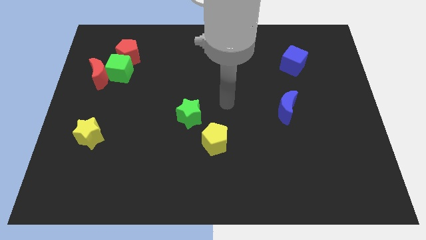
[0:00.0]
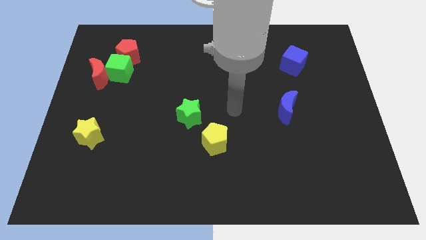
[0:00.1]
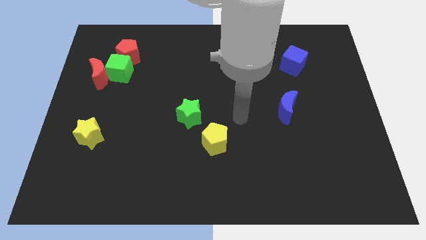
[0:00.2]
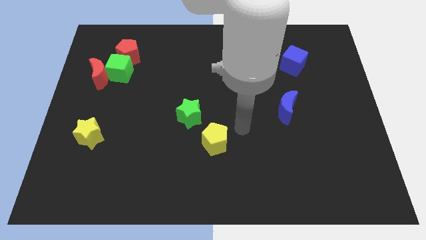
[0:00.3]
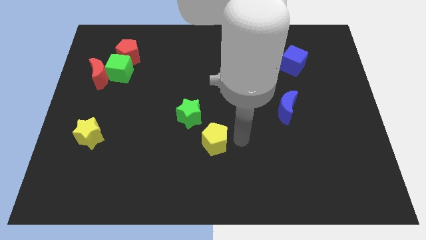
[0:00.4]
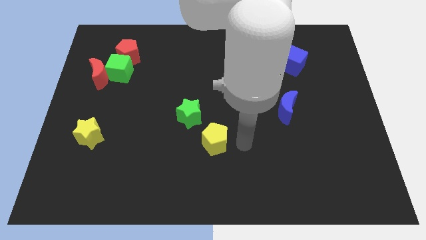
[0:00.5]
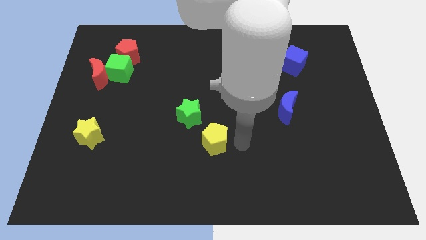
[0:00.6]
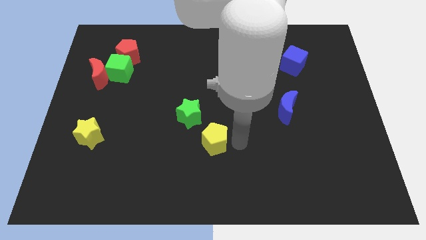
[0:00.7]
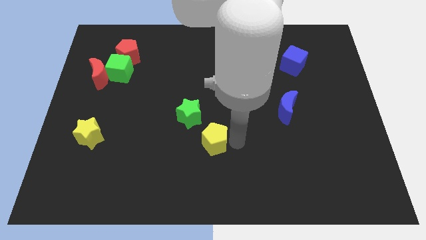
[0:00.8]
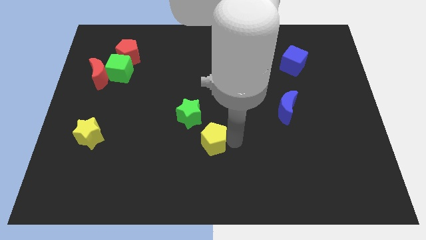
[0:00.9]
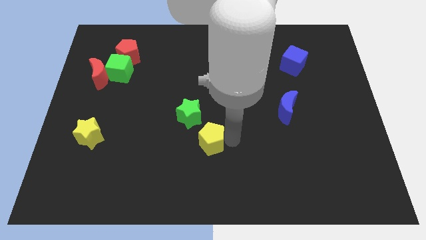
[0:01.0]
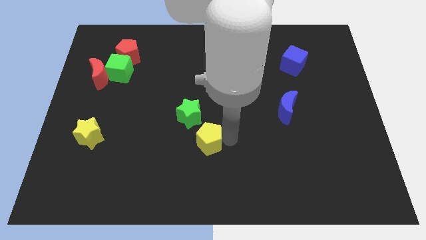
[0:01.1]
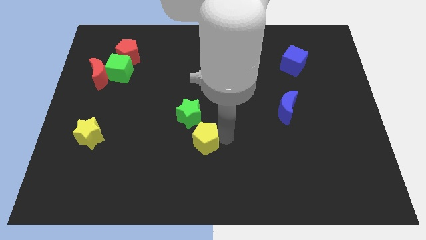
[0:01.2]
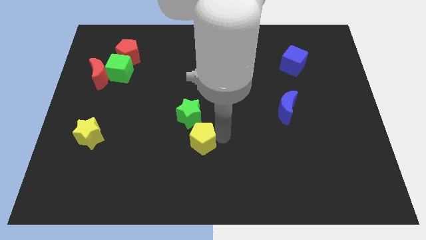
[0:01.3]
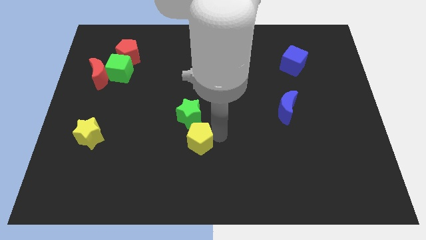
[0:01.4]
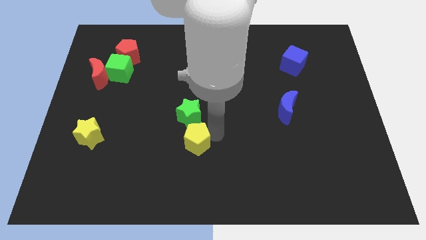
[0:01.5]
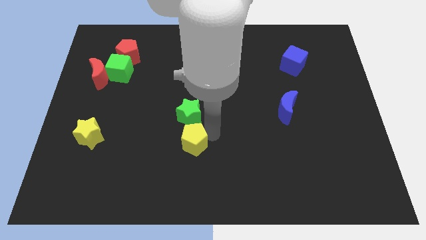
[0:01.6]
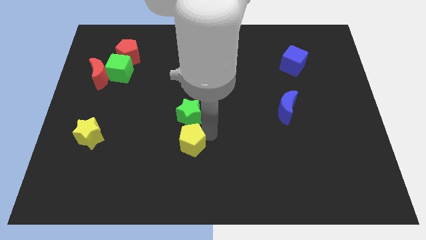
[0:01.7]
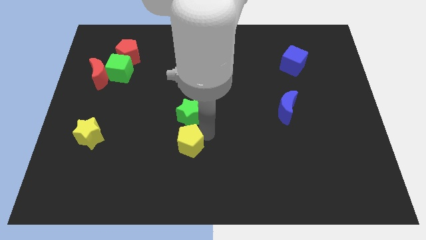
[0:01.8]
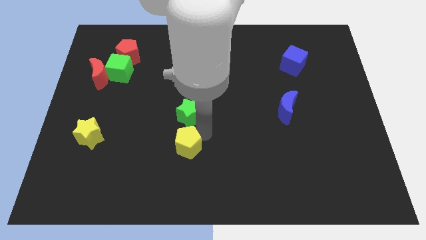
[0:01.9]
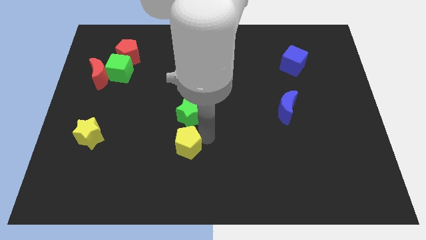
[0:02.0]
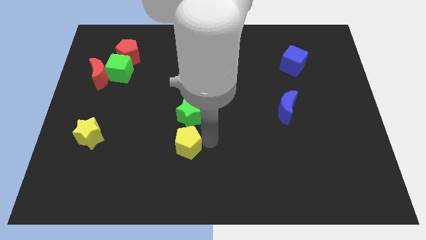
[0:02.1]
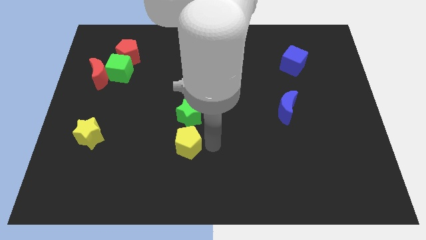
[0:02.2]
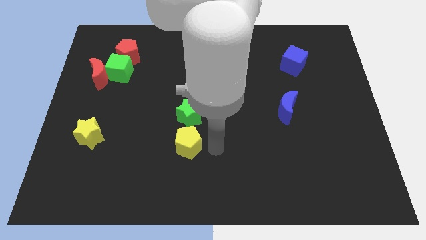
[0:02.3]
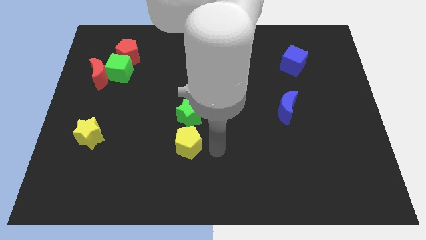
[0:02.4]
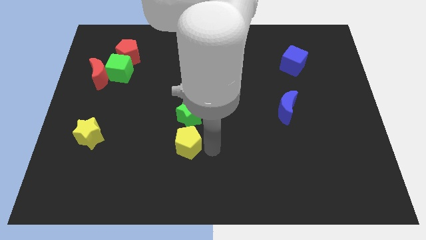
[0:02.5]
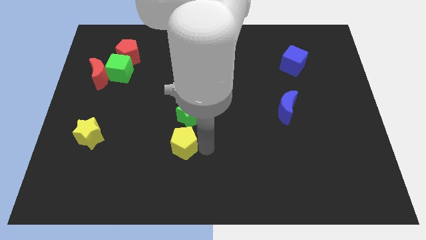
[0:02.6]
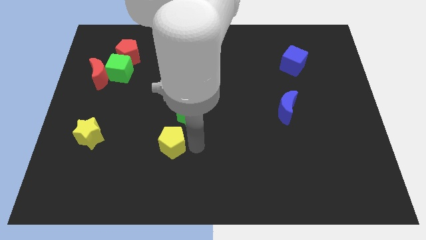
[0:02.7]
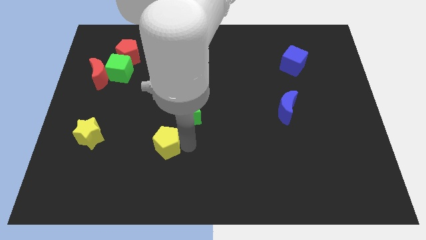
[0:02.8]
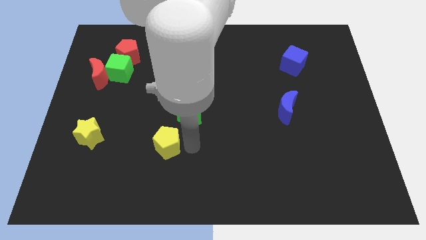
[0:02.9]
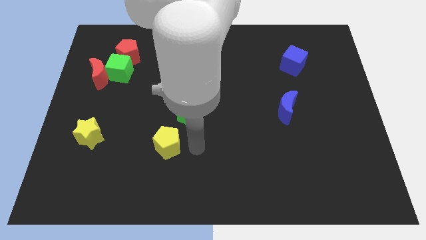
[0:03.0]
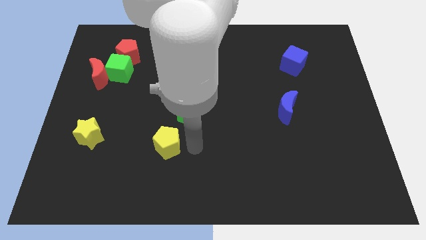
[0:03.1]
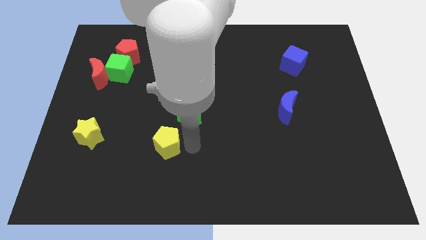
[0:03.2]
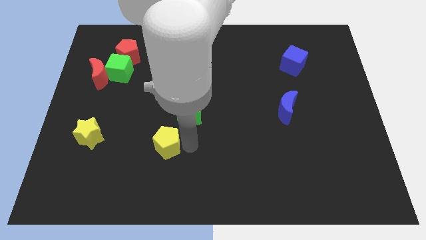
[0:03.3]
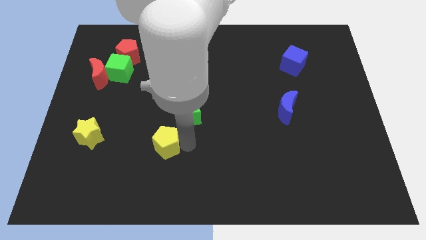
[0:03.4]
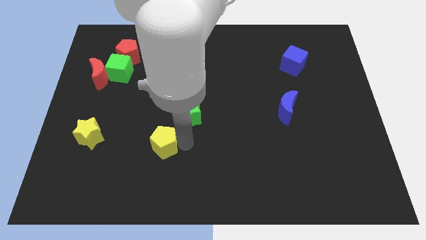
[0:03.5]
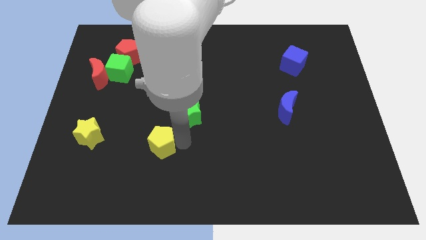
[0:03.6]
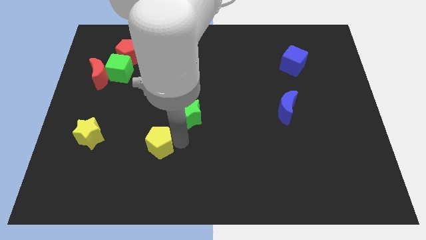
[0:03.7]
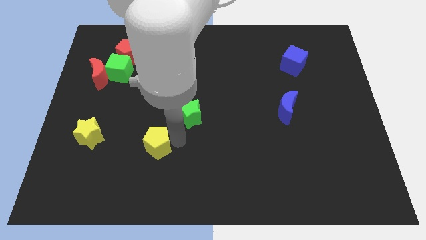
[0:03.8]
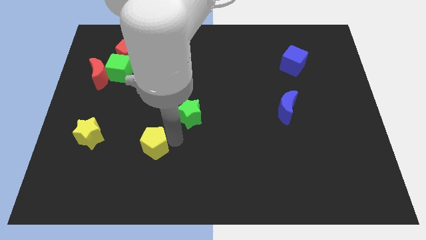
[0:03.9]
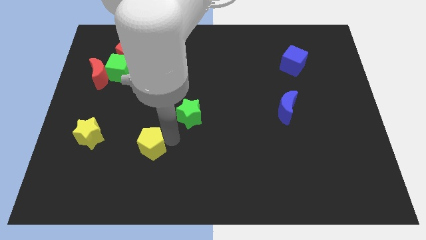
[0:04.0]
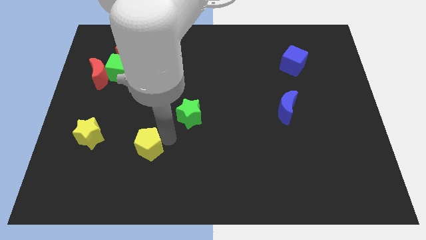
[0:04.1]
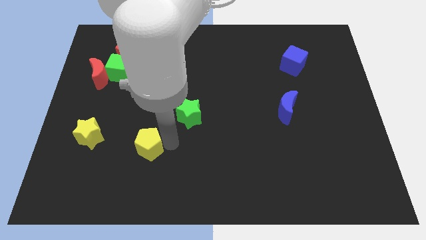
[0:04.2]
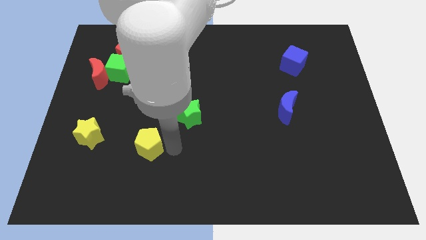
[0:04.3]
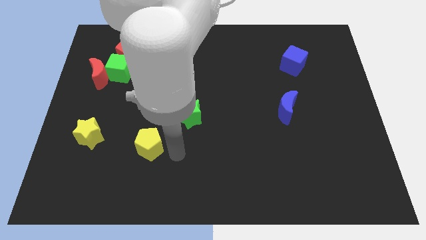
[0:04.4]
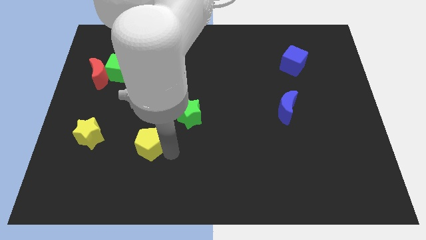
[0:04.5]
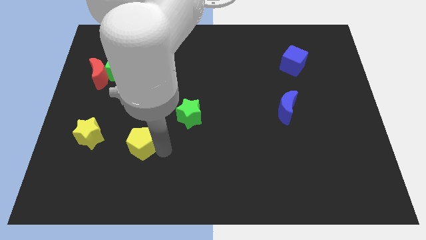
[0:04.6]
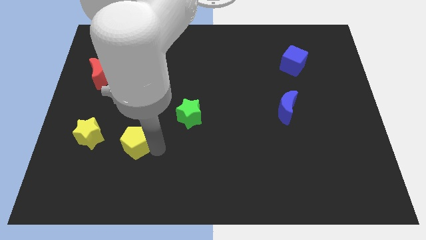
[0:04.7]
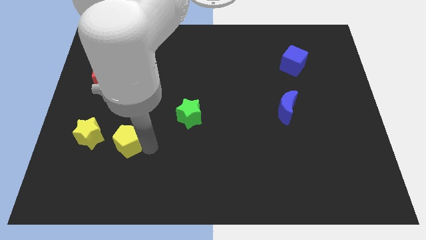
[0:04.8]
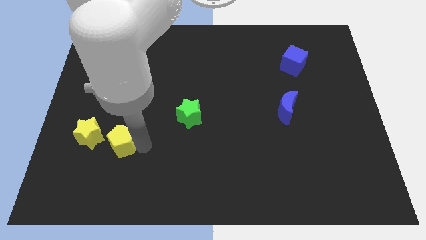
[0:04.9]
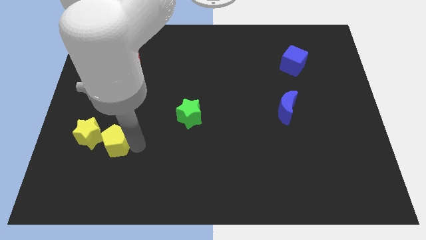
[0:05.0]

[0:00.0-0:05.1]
slide the yellow pentagon towards the yellow star

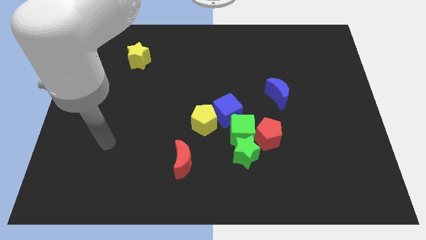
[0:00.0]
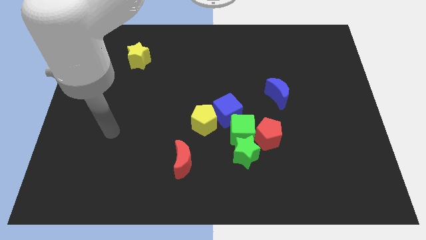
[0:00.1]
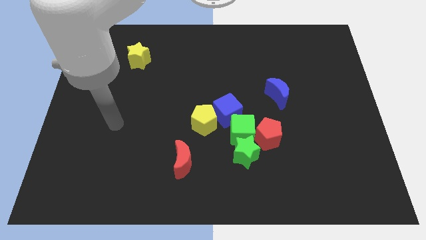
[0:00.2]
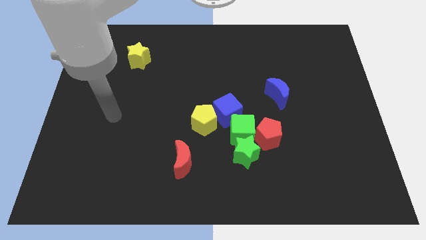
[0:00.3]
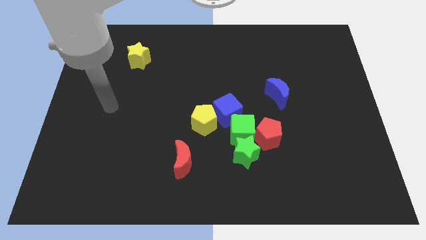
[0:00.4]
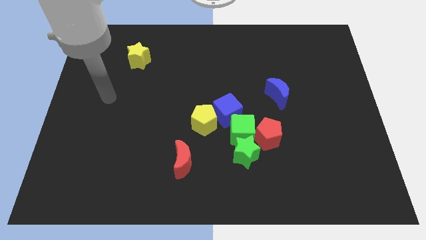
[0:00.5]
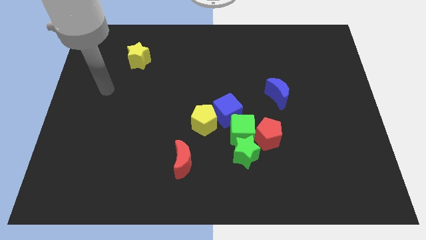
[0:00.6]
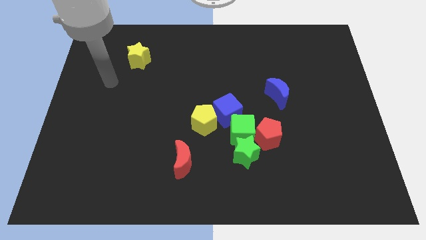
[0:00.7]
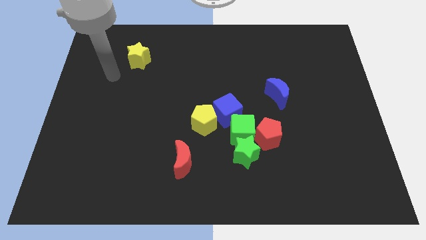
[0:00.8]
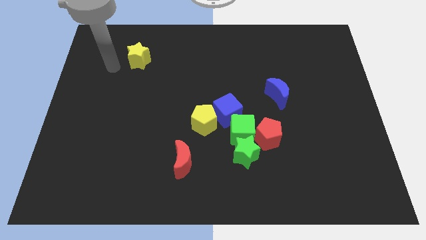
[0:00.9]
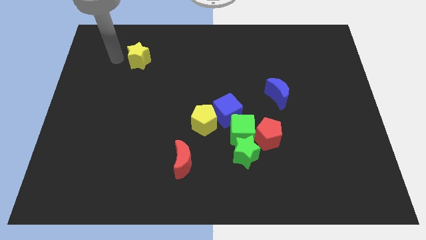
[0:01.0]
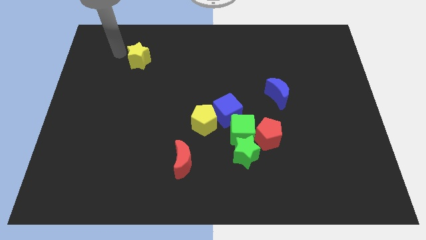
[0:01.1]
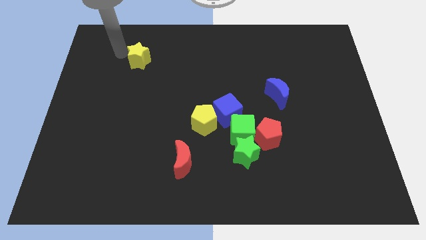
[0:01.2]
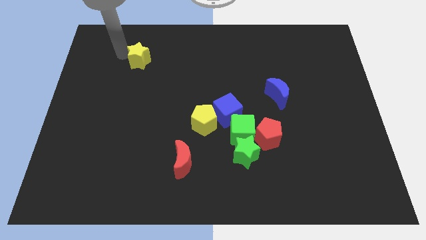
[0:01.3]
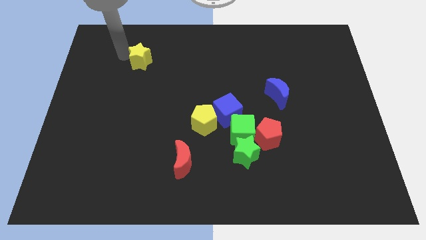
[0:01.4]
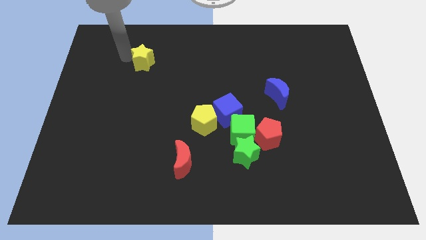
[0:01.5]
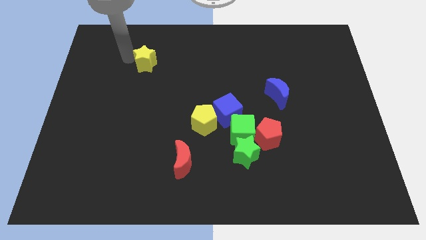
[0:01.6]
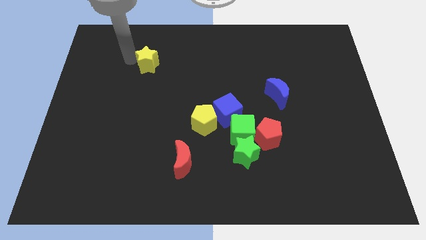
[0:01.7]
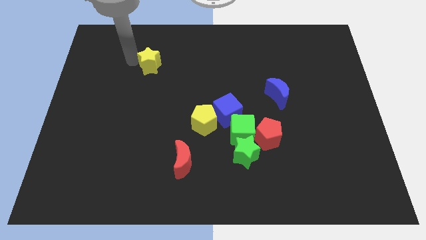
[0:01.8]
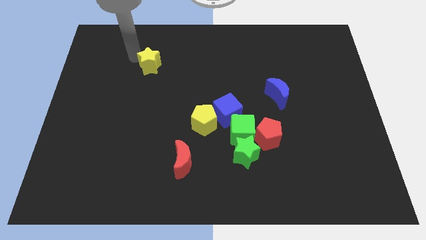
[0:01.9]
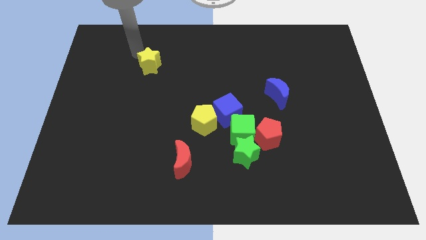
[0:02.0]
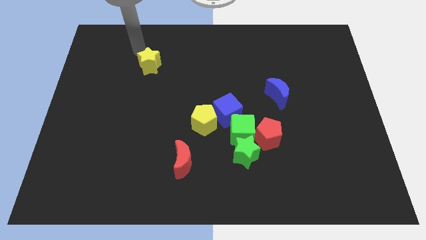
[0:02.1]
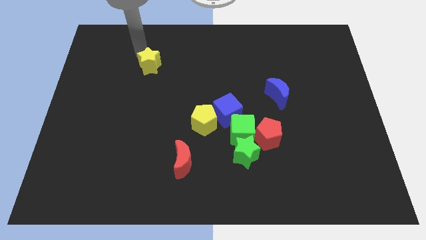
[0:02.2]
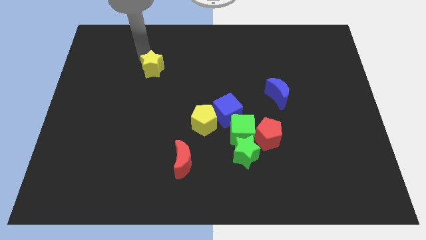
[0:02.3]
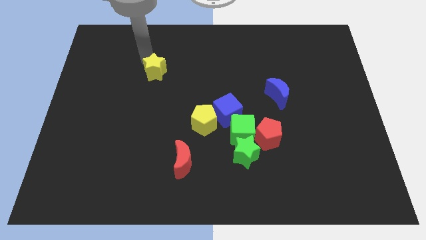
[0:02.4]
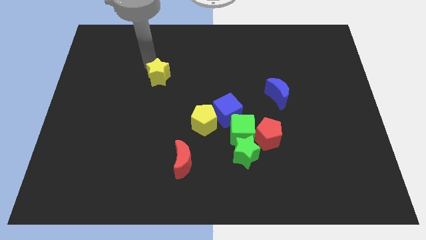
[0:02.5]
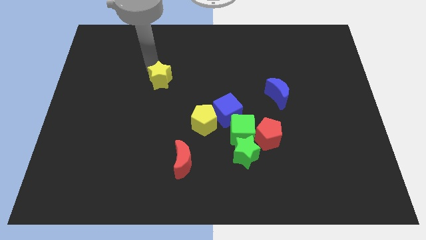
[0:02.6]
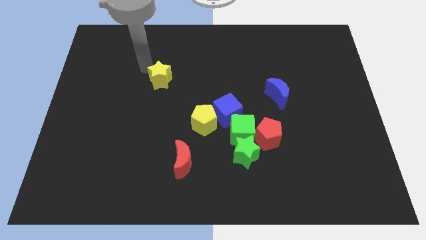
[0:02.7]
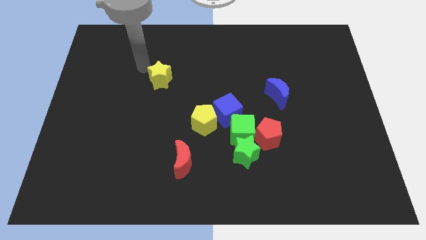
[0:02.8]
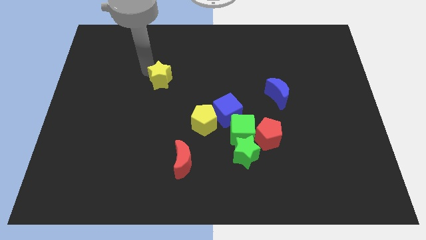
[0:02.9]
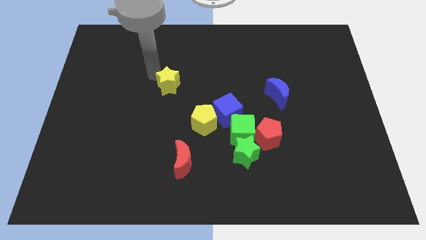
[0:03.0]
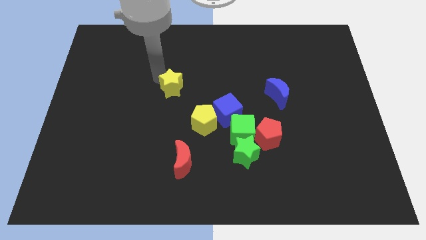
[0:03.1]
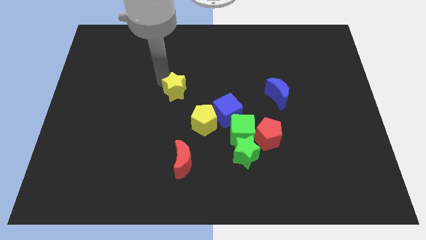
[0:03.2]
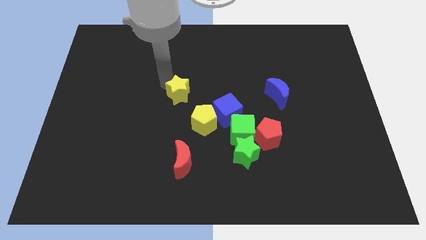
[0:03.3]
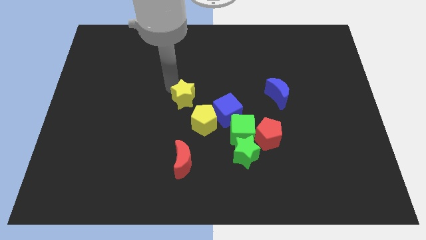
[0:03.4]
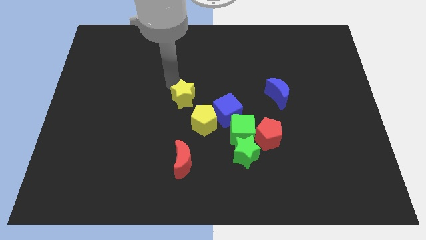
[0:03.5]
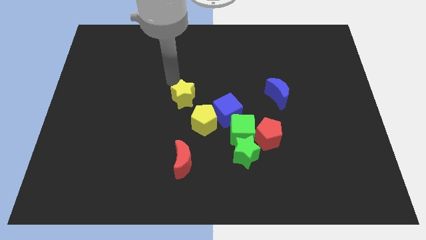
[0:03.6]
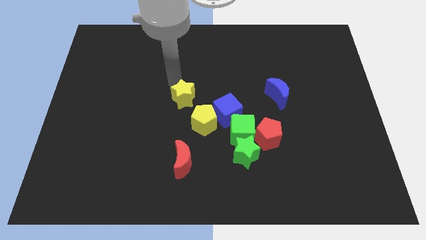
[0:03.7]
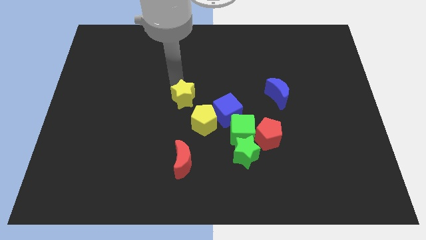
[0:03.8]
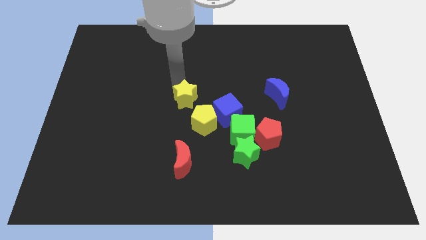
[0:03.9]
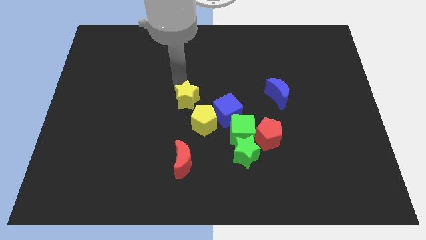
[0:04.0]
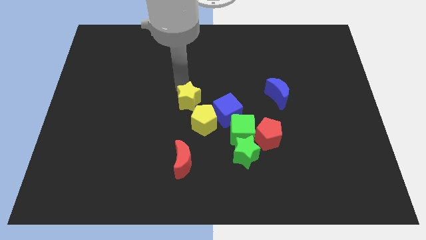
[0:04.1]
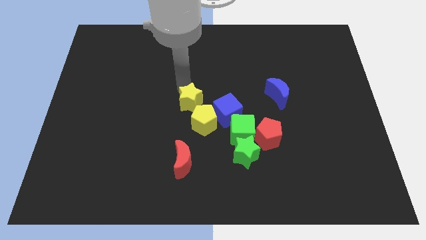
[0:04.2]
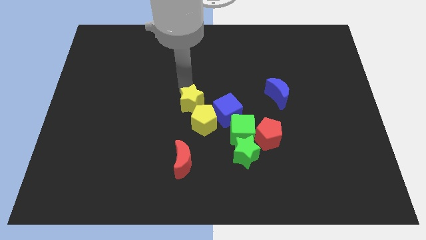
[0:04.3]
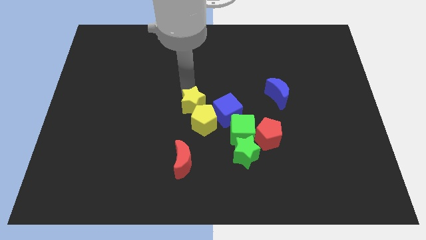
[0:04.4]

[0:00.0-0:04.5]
push the yellow star towards the yellow pentagon
